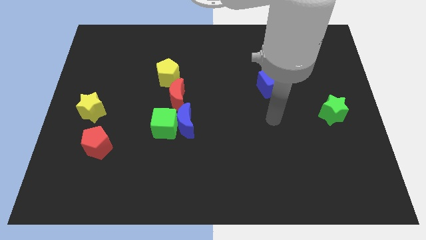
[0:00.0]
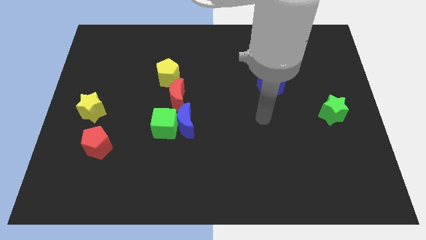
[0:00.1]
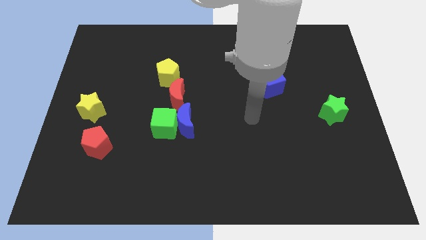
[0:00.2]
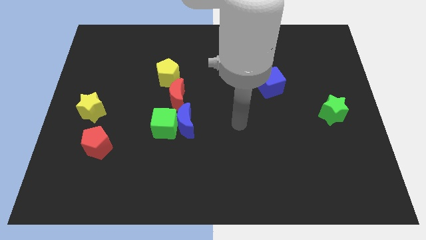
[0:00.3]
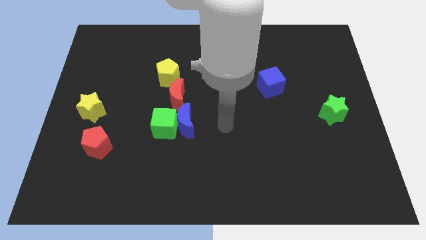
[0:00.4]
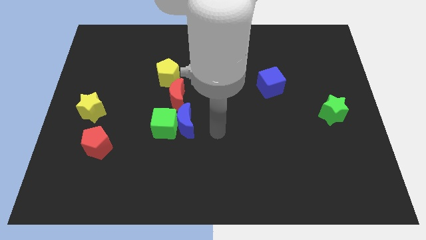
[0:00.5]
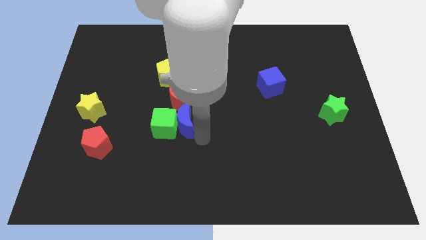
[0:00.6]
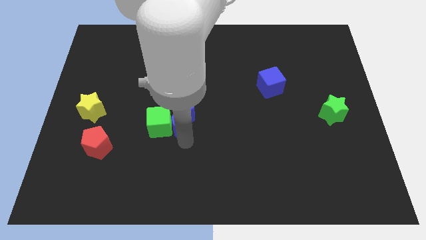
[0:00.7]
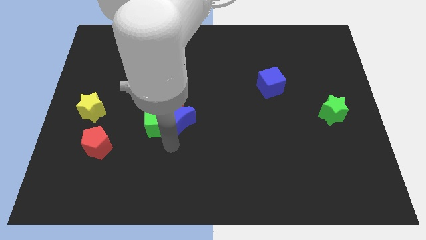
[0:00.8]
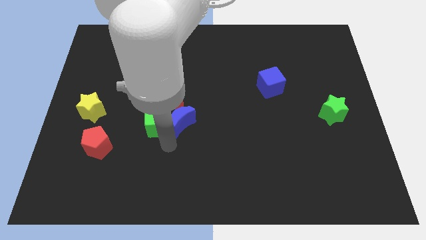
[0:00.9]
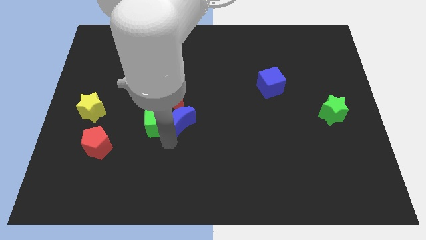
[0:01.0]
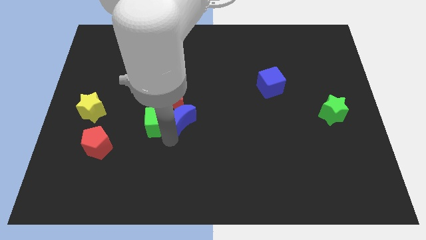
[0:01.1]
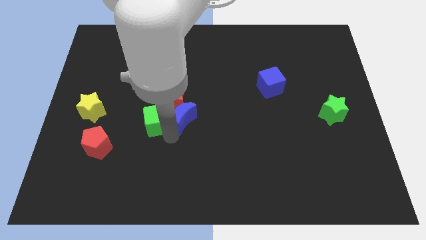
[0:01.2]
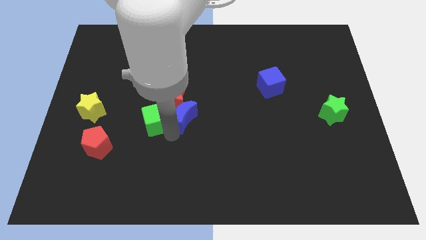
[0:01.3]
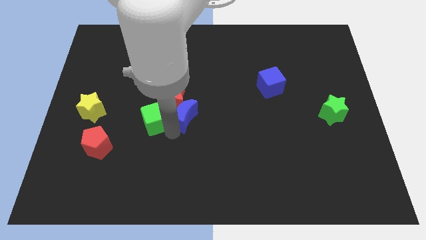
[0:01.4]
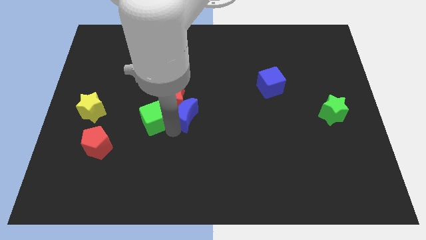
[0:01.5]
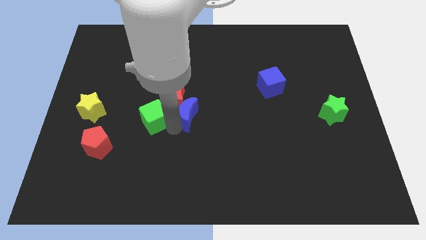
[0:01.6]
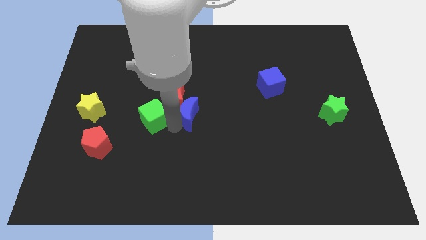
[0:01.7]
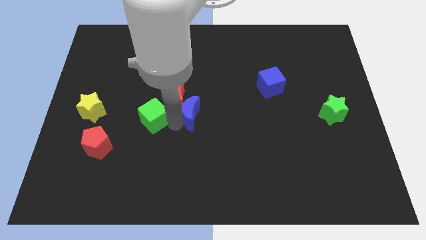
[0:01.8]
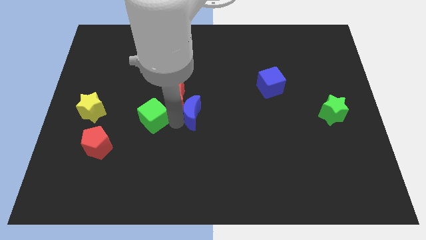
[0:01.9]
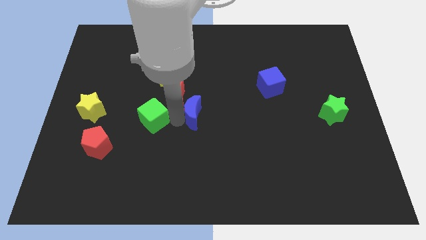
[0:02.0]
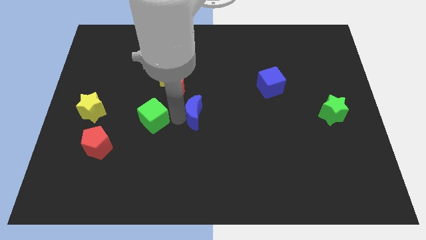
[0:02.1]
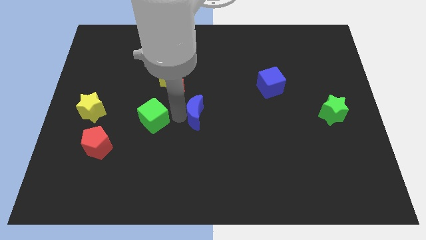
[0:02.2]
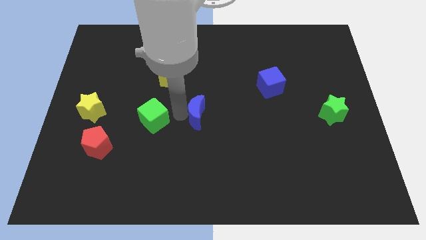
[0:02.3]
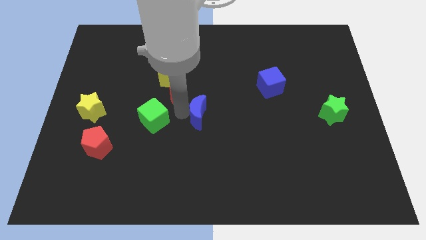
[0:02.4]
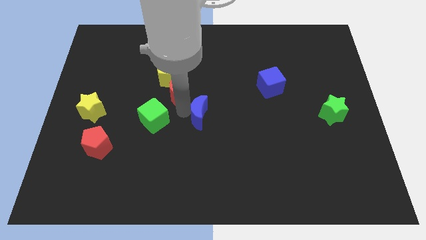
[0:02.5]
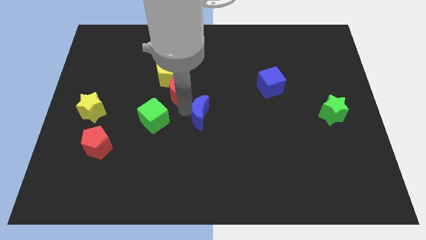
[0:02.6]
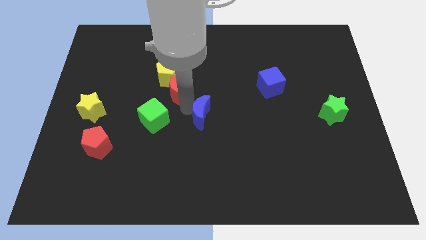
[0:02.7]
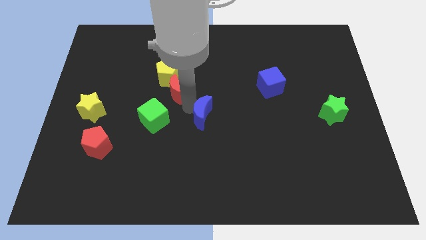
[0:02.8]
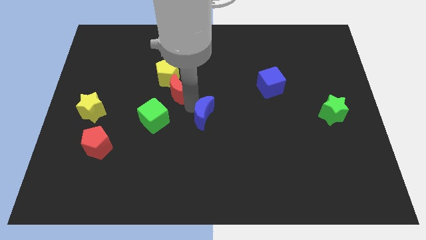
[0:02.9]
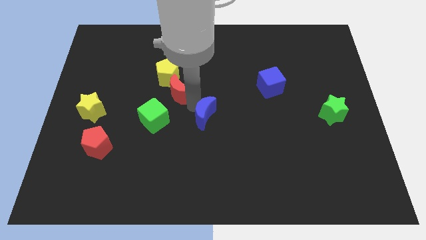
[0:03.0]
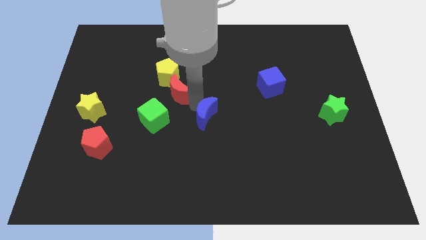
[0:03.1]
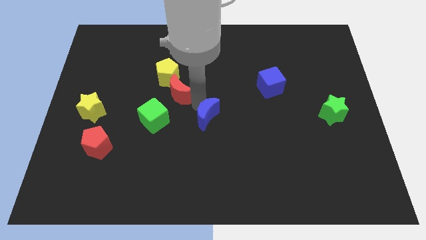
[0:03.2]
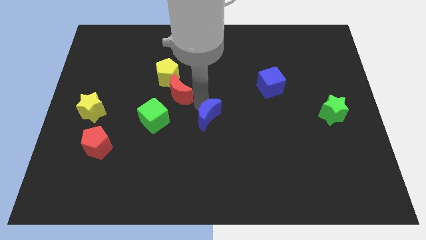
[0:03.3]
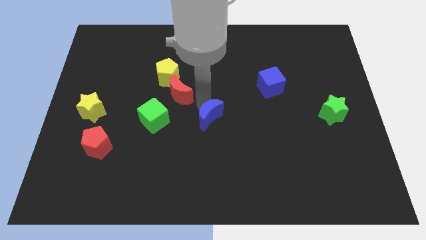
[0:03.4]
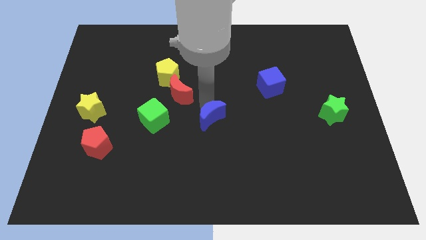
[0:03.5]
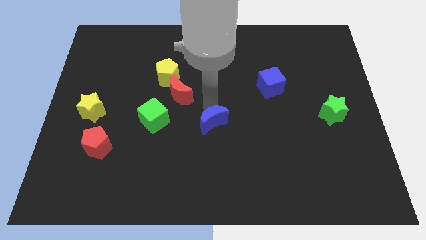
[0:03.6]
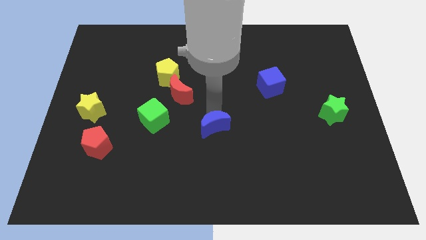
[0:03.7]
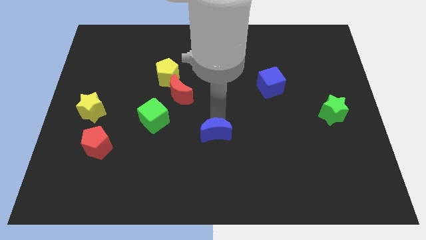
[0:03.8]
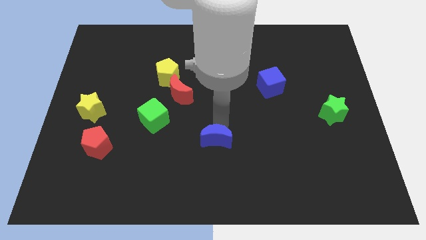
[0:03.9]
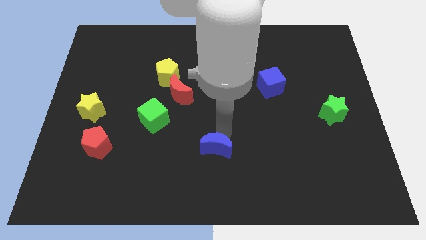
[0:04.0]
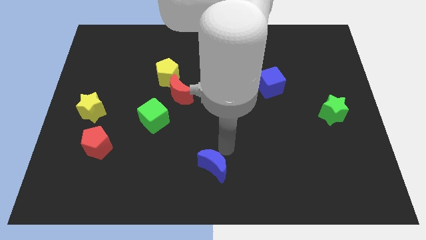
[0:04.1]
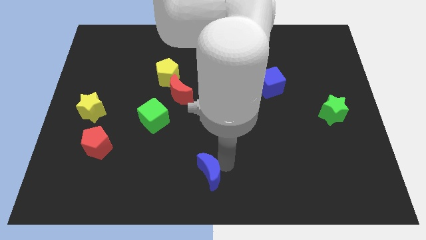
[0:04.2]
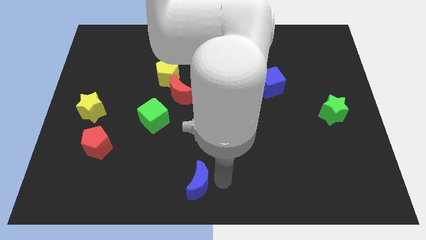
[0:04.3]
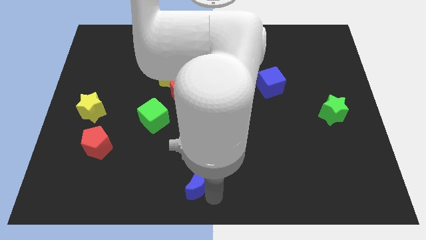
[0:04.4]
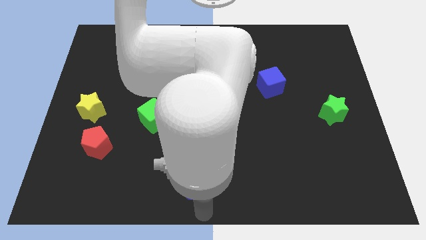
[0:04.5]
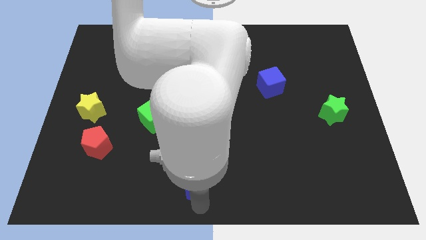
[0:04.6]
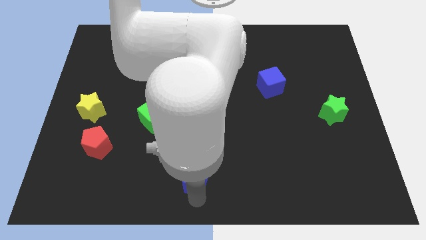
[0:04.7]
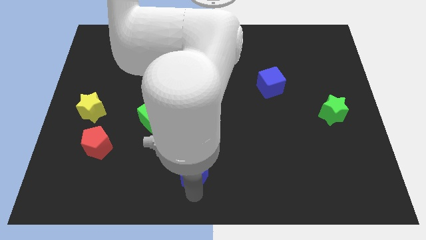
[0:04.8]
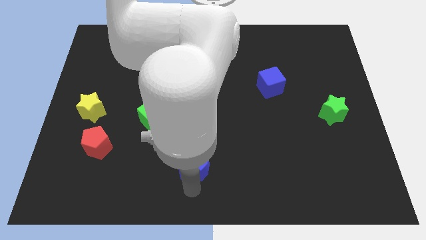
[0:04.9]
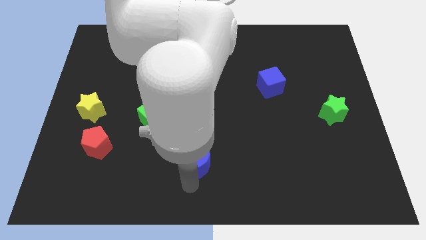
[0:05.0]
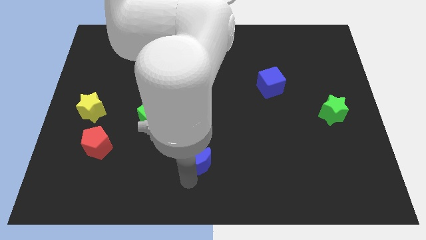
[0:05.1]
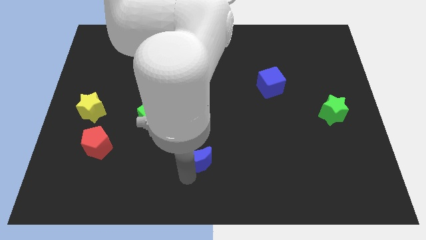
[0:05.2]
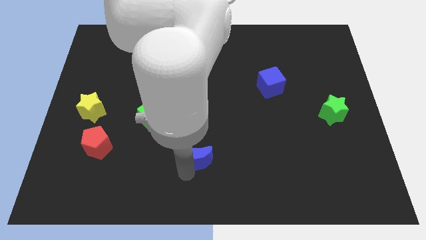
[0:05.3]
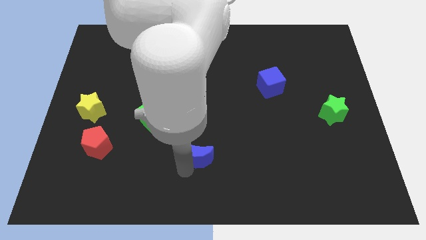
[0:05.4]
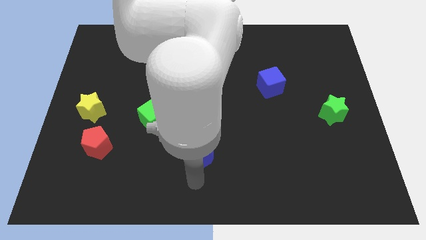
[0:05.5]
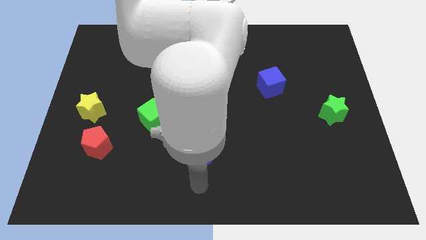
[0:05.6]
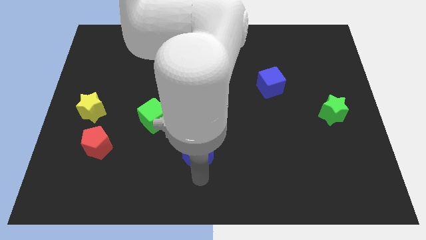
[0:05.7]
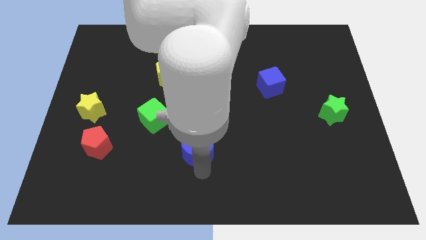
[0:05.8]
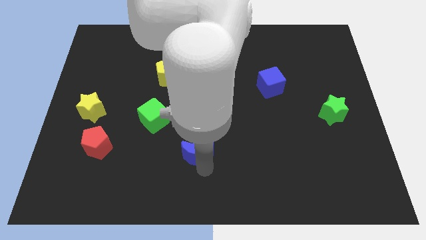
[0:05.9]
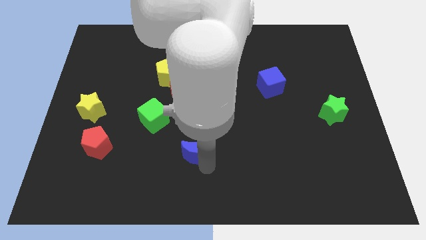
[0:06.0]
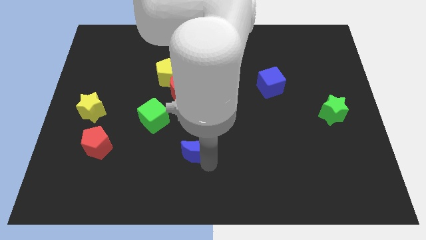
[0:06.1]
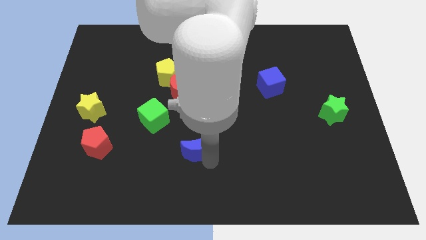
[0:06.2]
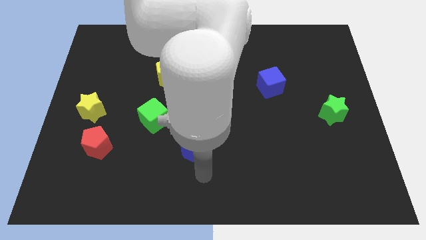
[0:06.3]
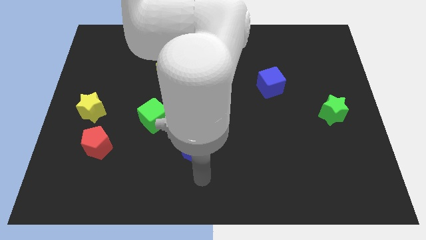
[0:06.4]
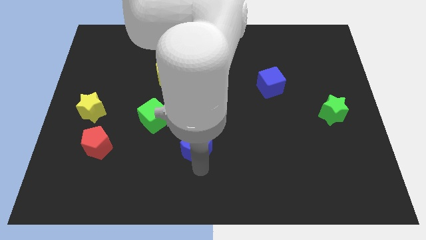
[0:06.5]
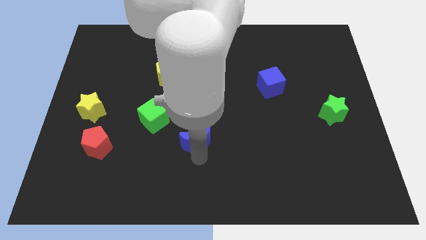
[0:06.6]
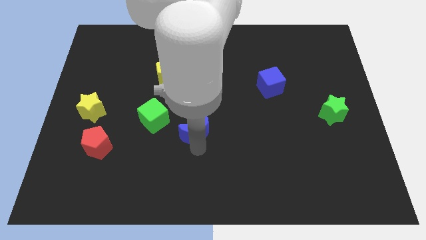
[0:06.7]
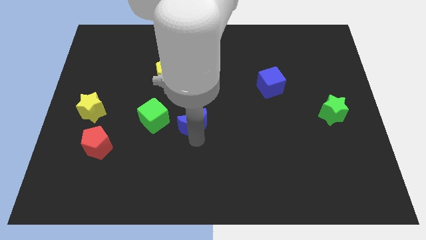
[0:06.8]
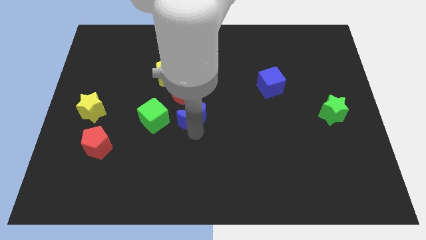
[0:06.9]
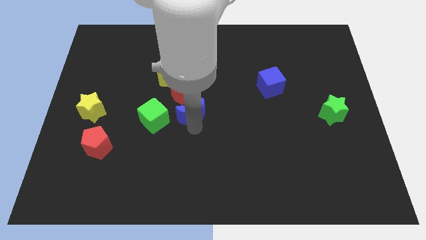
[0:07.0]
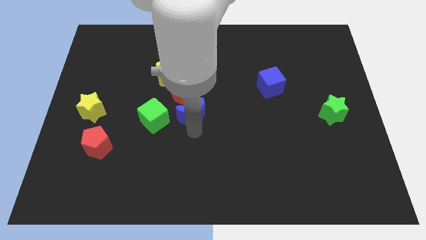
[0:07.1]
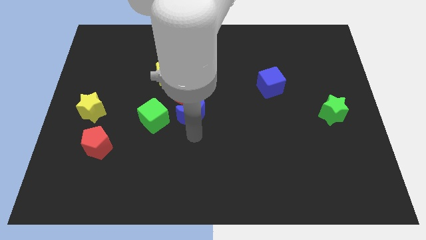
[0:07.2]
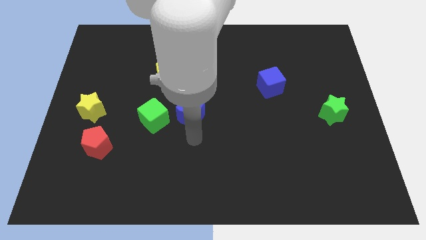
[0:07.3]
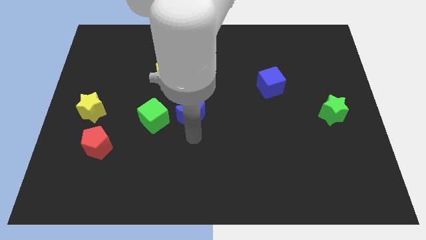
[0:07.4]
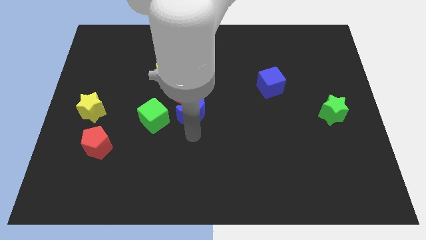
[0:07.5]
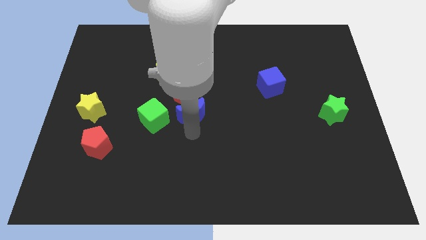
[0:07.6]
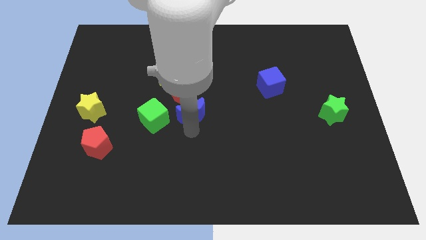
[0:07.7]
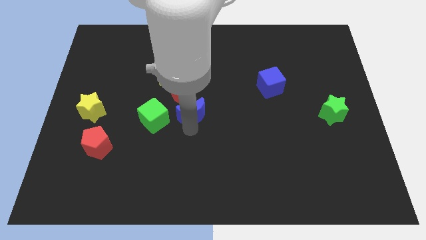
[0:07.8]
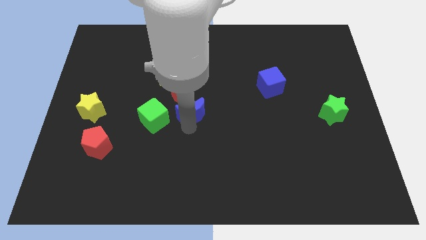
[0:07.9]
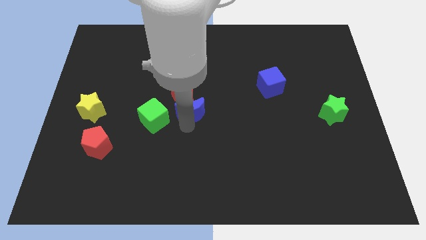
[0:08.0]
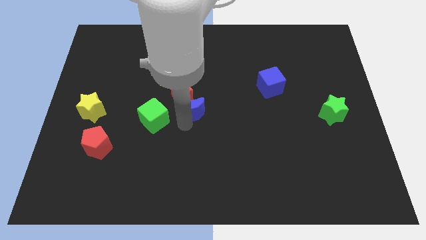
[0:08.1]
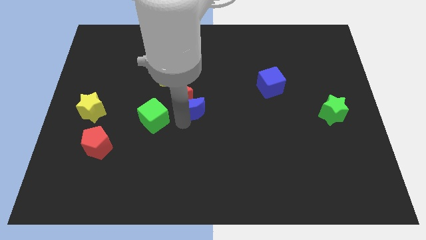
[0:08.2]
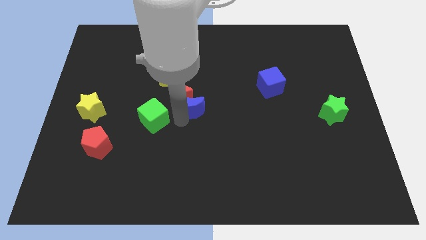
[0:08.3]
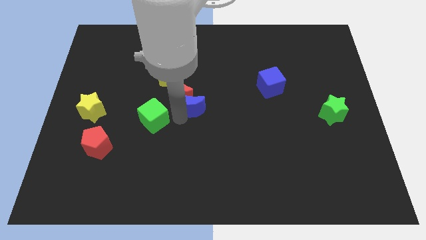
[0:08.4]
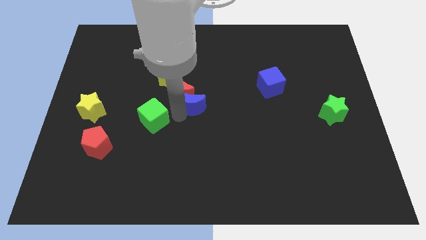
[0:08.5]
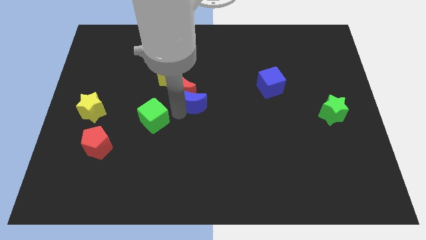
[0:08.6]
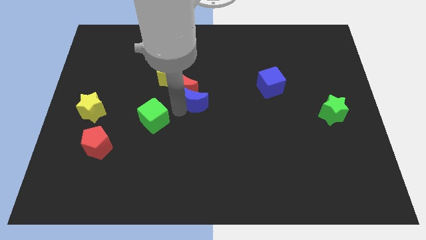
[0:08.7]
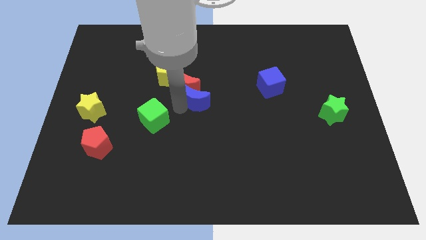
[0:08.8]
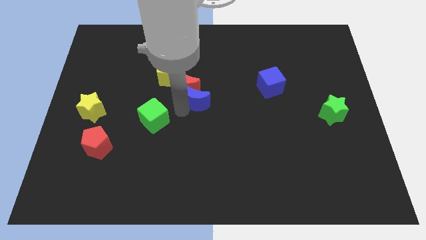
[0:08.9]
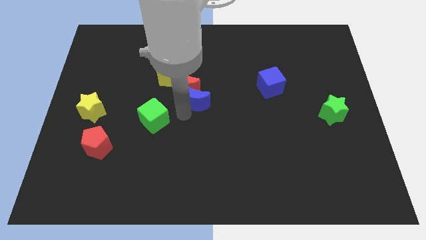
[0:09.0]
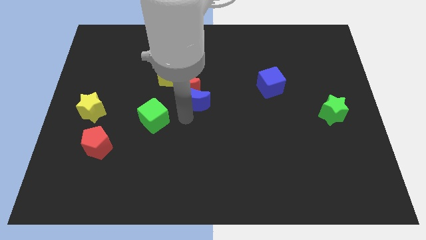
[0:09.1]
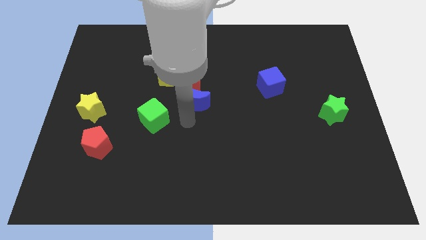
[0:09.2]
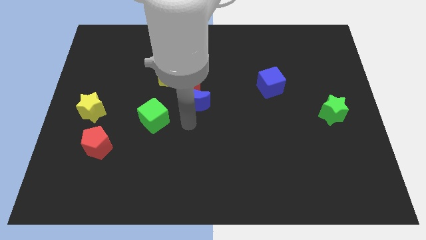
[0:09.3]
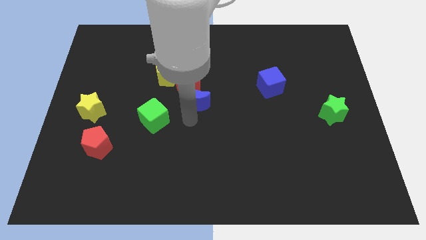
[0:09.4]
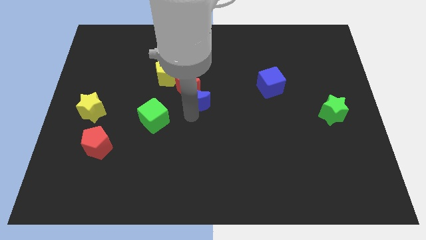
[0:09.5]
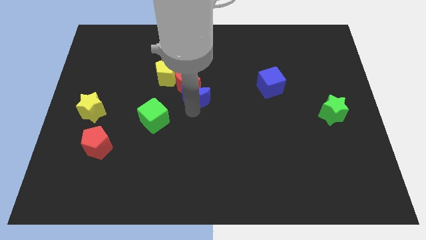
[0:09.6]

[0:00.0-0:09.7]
slide the blue moon upwards slightly
